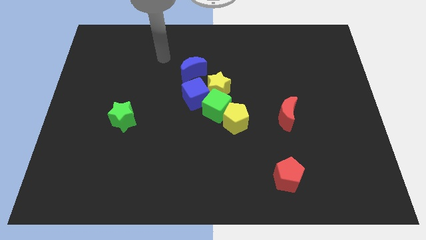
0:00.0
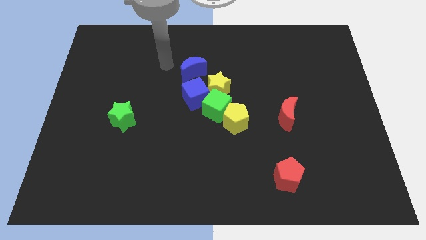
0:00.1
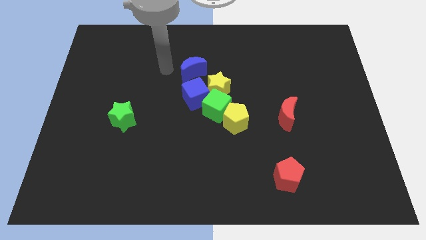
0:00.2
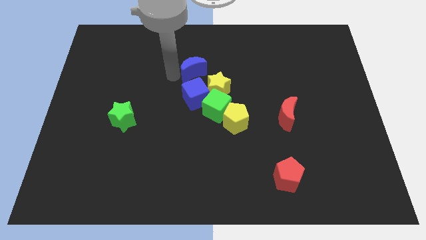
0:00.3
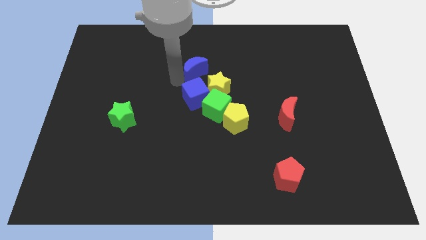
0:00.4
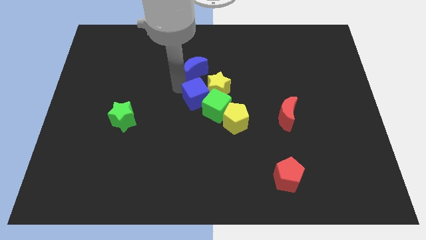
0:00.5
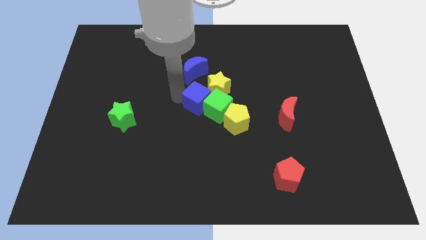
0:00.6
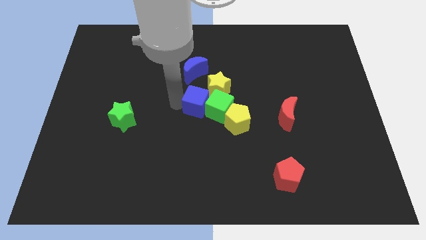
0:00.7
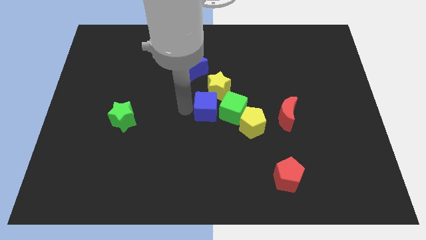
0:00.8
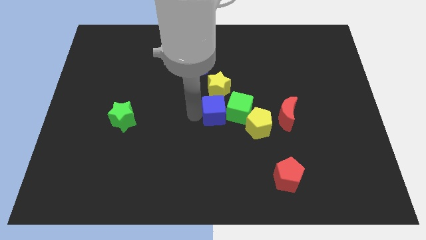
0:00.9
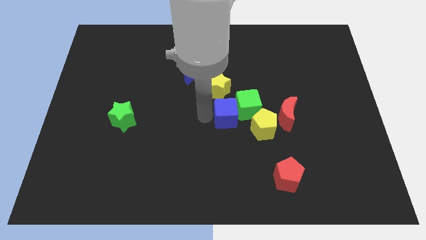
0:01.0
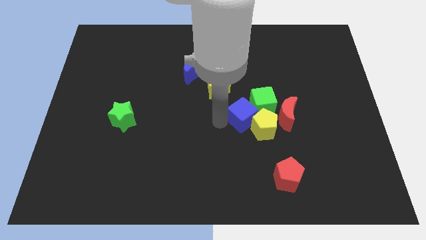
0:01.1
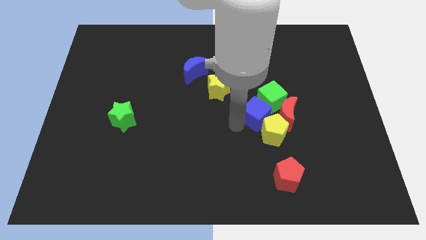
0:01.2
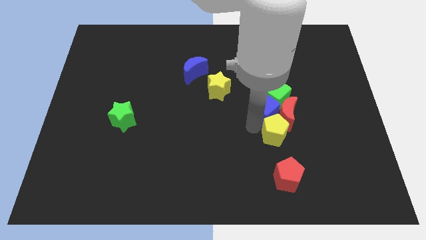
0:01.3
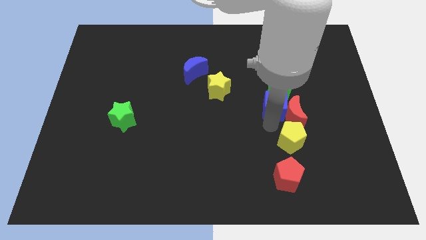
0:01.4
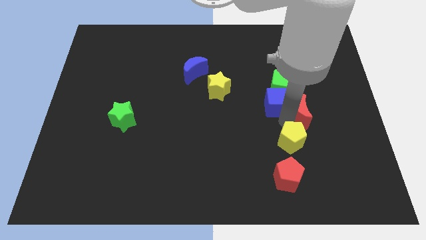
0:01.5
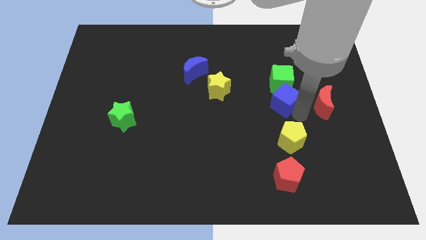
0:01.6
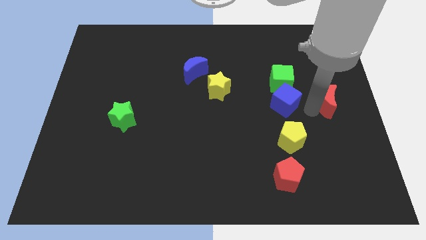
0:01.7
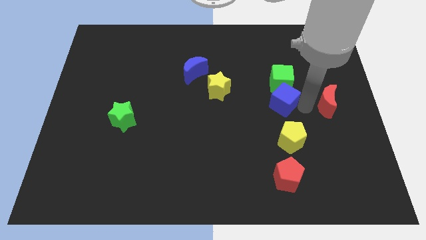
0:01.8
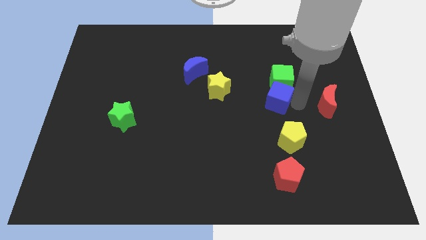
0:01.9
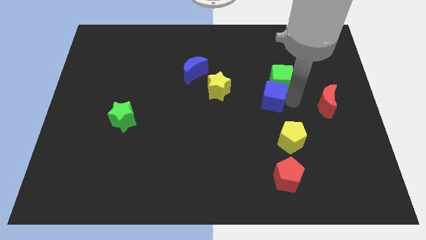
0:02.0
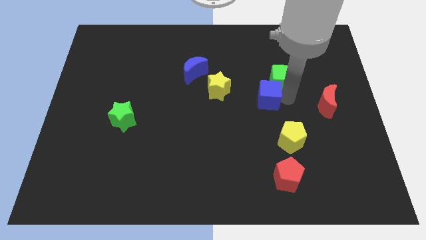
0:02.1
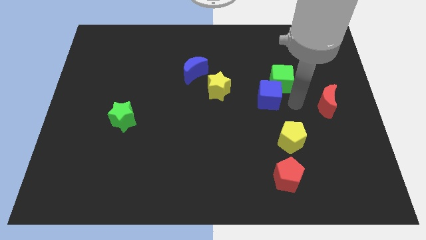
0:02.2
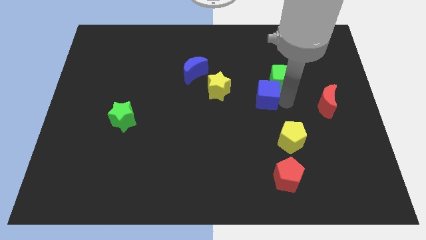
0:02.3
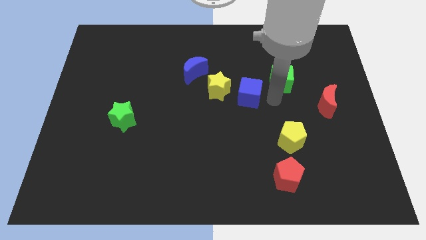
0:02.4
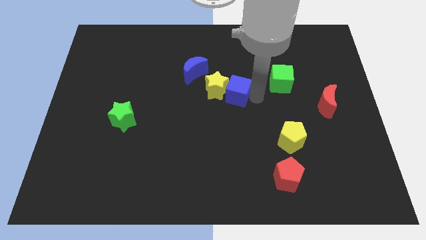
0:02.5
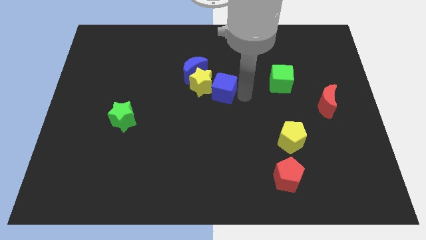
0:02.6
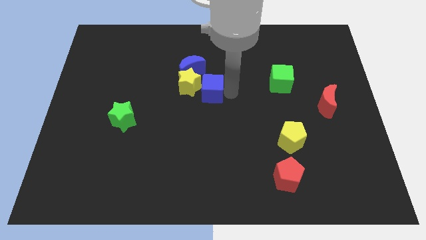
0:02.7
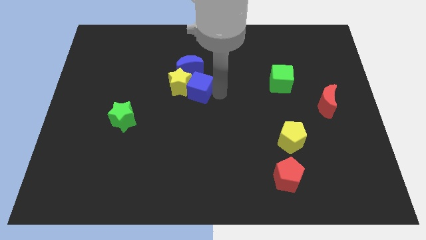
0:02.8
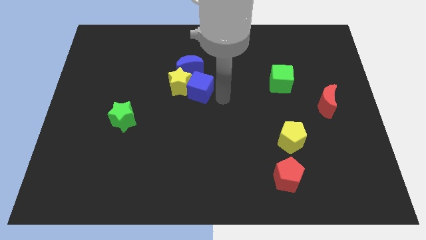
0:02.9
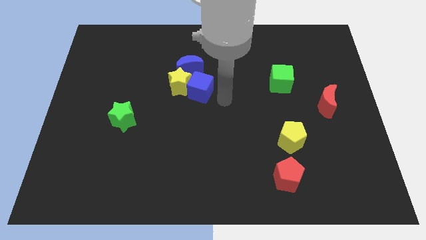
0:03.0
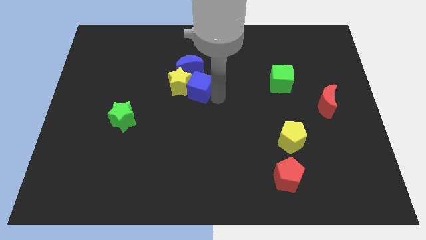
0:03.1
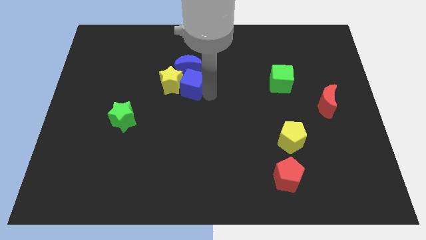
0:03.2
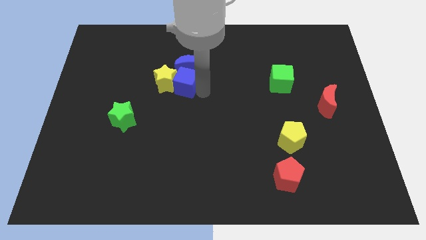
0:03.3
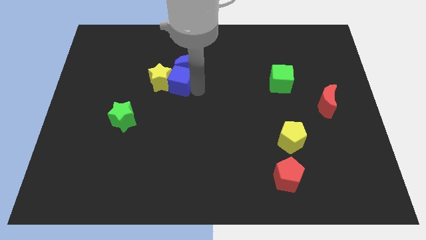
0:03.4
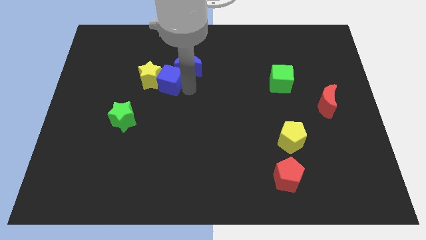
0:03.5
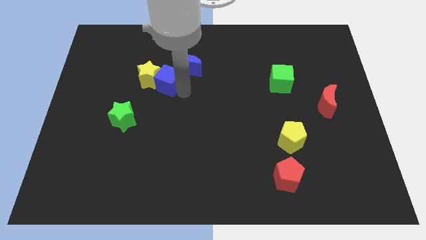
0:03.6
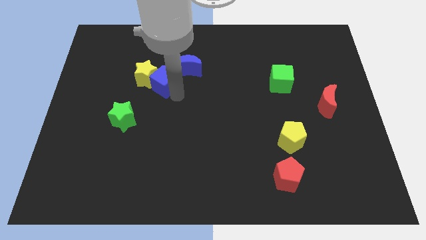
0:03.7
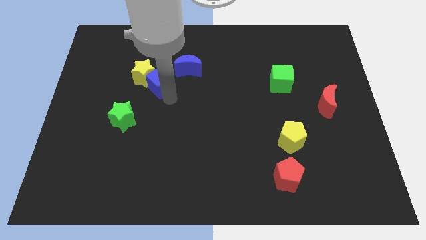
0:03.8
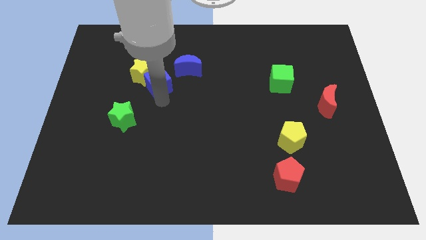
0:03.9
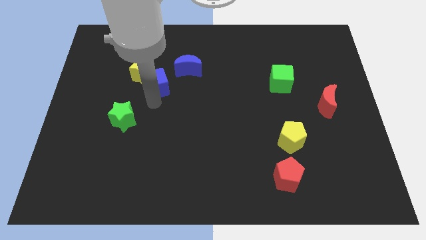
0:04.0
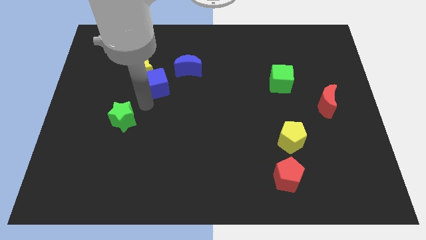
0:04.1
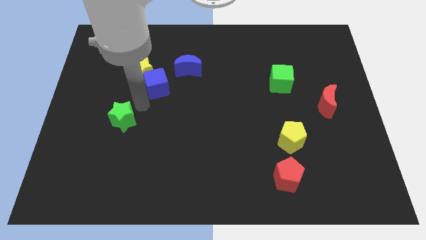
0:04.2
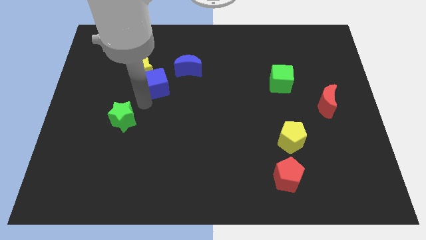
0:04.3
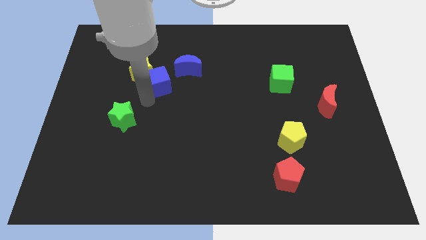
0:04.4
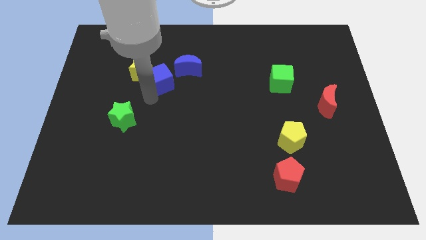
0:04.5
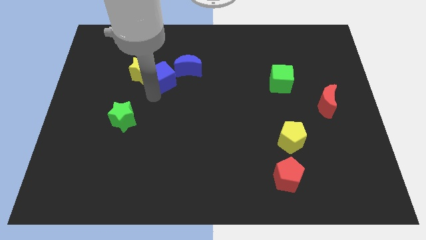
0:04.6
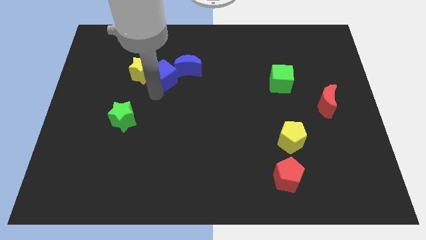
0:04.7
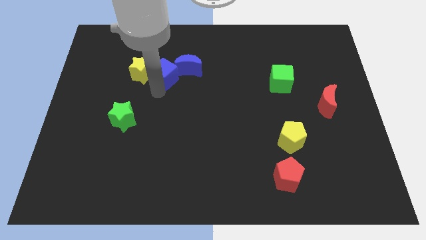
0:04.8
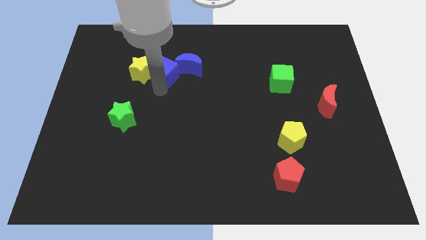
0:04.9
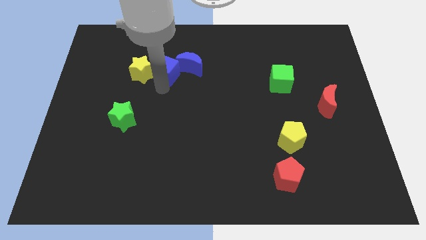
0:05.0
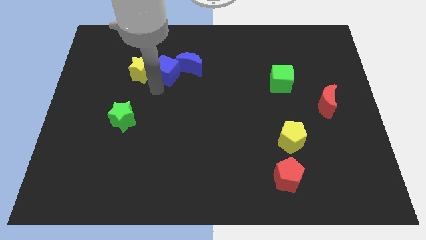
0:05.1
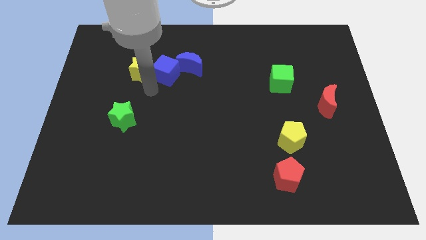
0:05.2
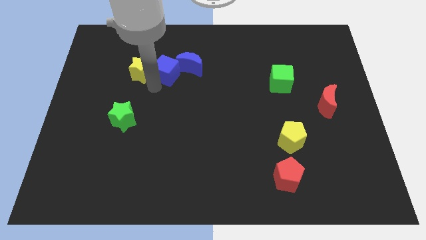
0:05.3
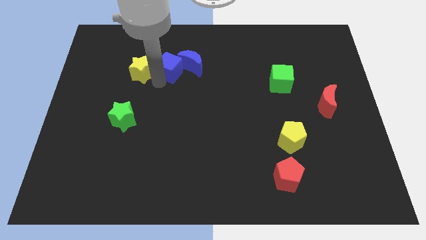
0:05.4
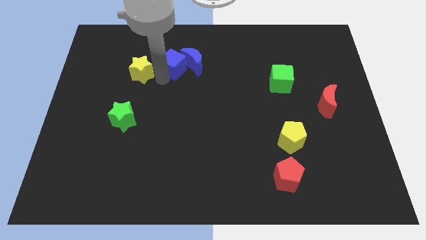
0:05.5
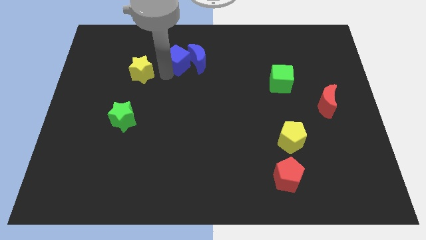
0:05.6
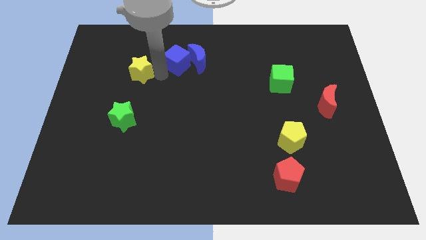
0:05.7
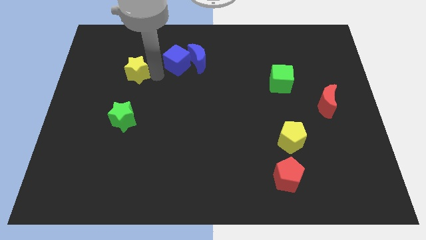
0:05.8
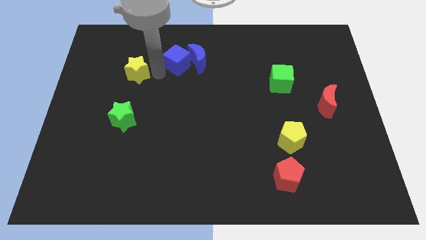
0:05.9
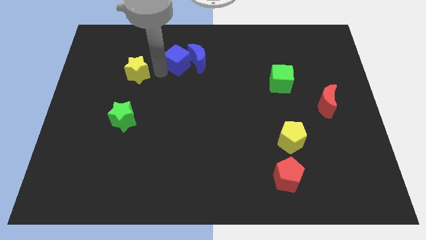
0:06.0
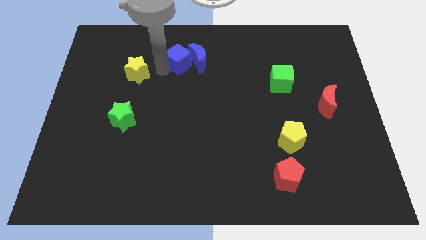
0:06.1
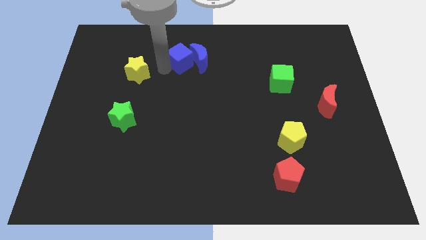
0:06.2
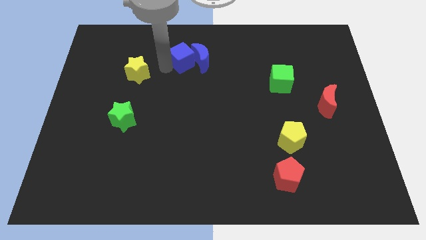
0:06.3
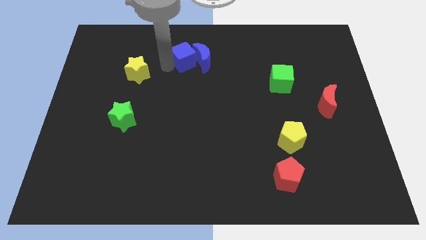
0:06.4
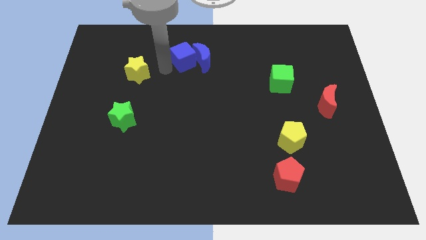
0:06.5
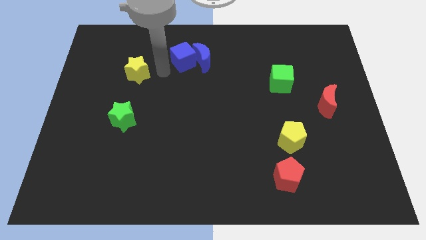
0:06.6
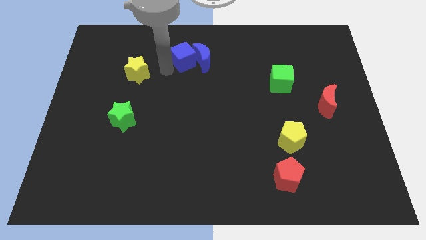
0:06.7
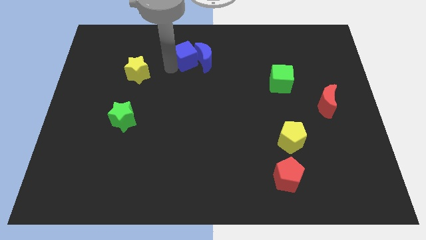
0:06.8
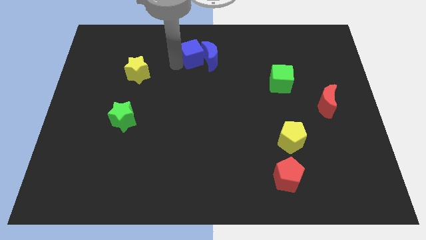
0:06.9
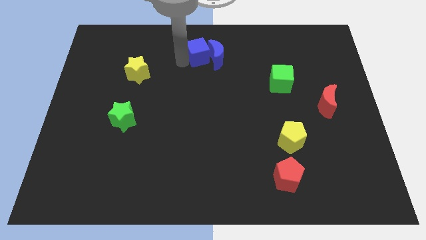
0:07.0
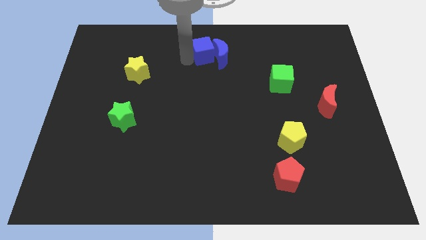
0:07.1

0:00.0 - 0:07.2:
move the blue cube upwards and right a little bit

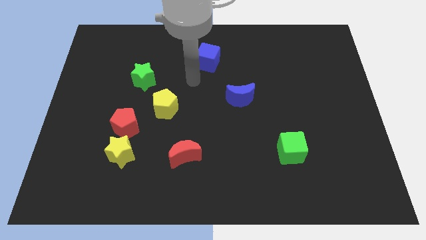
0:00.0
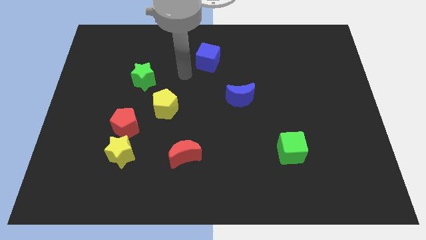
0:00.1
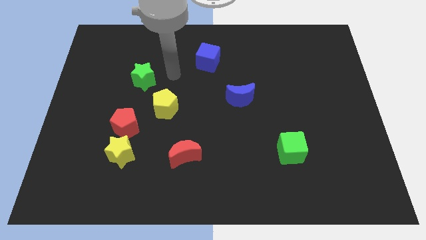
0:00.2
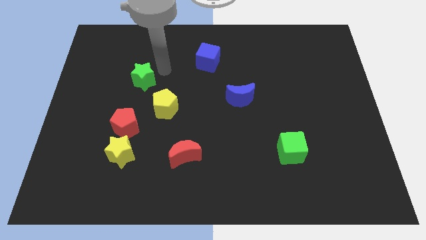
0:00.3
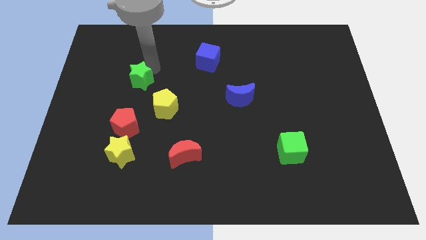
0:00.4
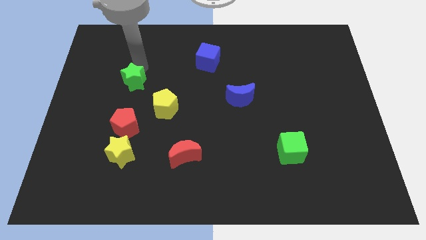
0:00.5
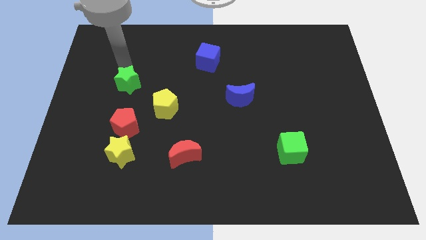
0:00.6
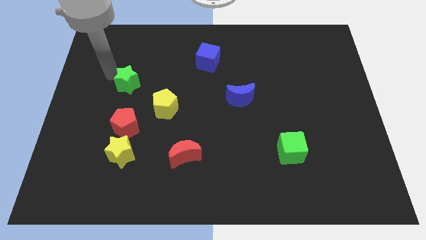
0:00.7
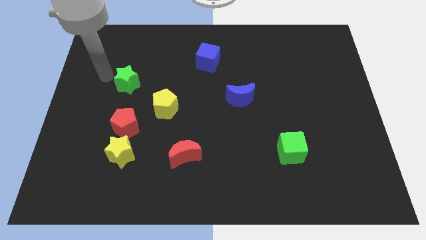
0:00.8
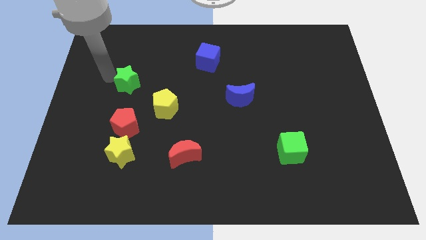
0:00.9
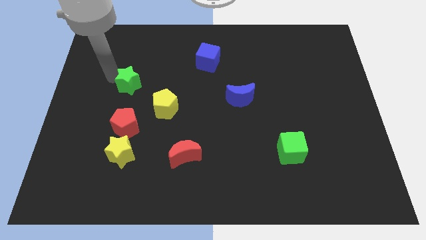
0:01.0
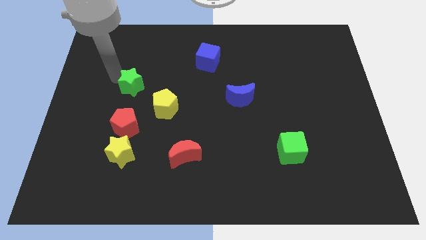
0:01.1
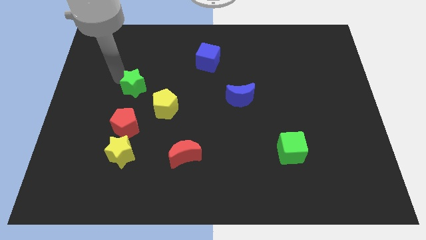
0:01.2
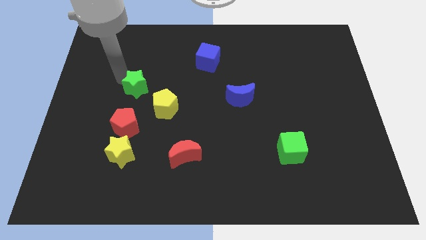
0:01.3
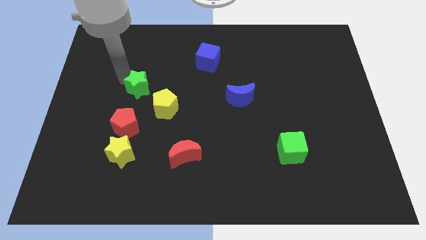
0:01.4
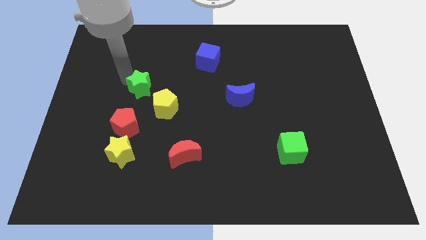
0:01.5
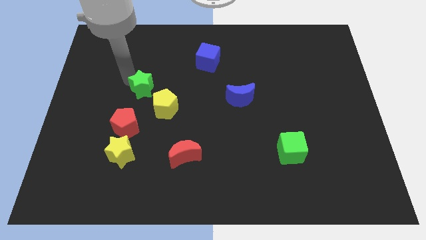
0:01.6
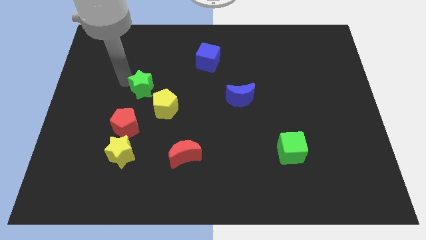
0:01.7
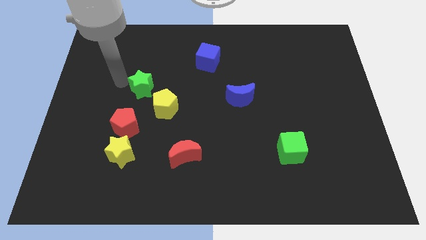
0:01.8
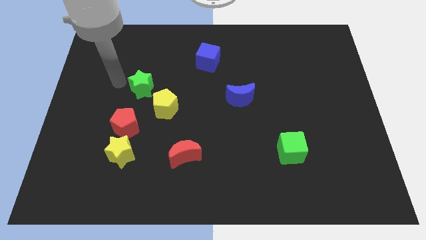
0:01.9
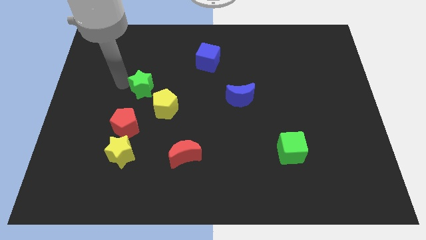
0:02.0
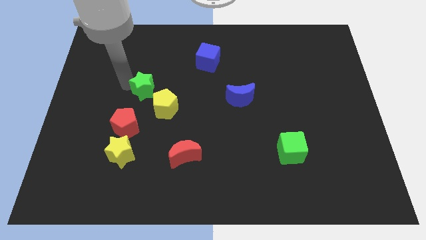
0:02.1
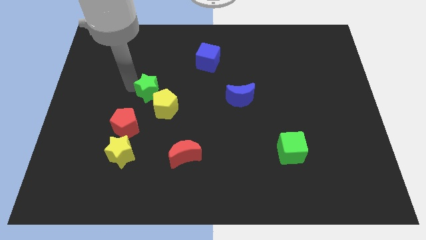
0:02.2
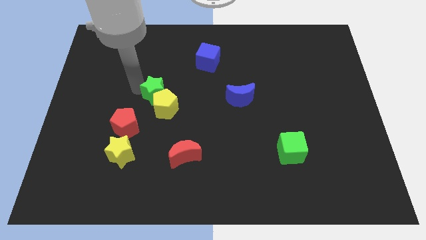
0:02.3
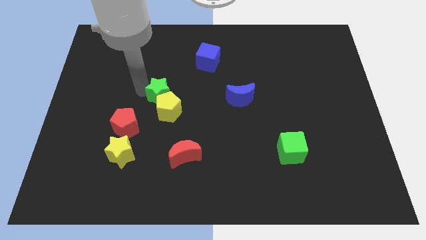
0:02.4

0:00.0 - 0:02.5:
move the green star down and then to the right somewhat
